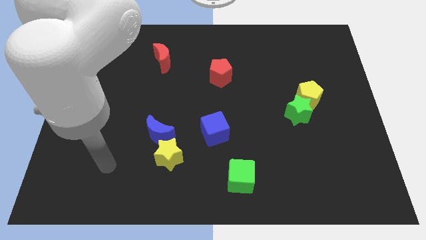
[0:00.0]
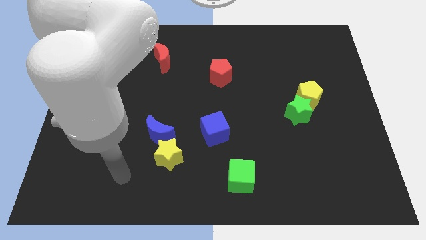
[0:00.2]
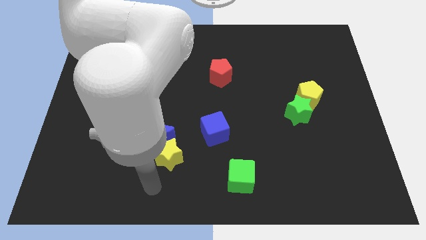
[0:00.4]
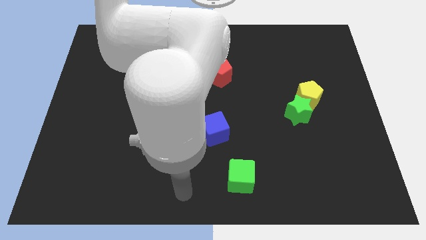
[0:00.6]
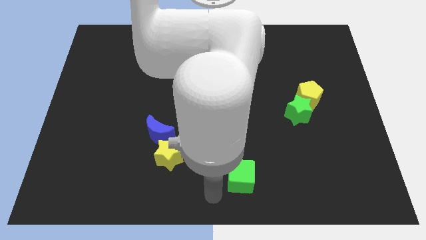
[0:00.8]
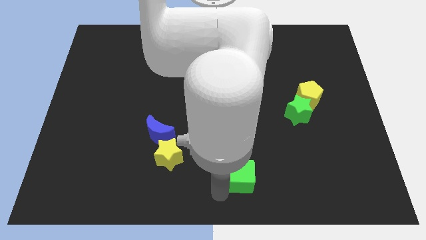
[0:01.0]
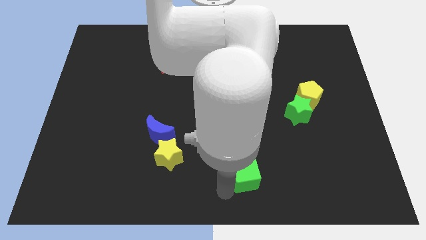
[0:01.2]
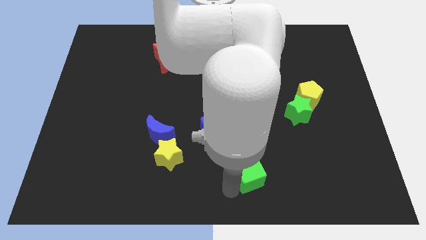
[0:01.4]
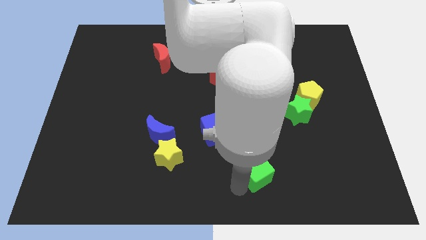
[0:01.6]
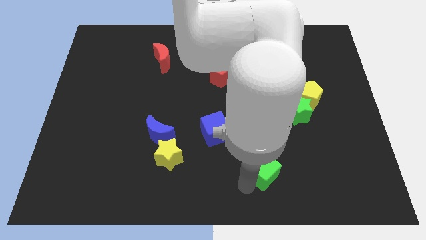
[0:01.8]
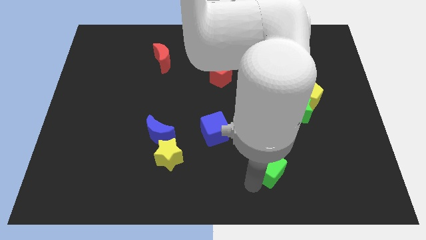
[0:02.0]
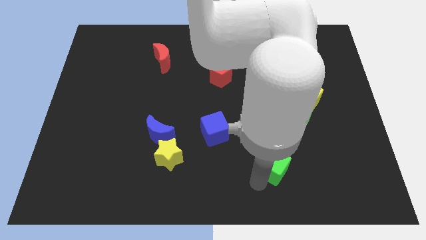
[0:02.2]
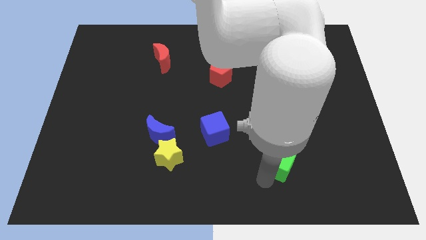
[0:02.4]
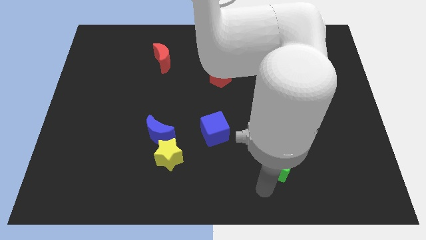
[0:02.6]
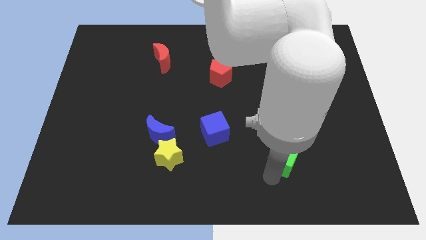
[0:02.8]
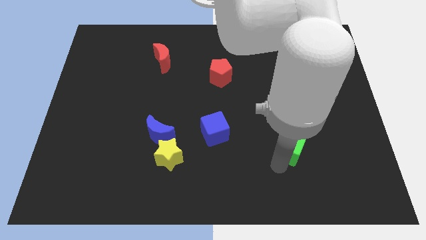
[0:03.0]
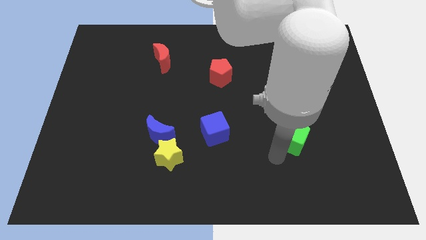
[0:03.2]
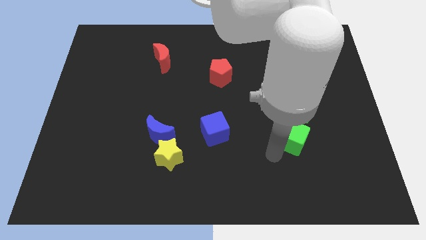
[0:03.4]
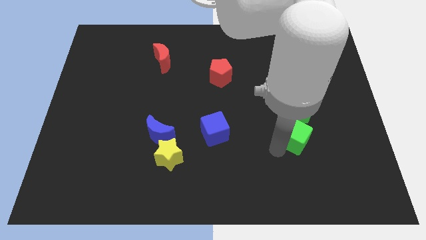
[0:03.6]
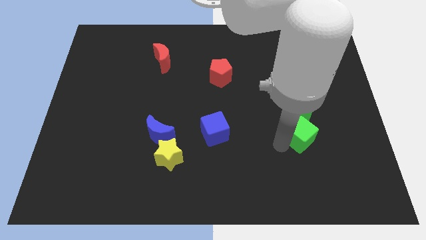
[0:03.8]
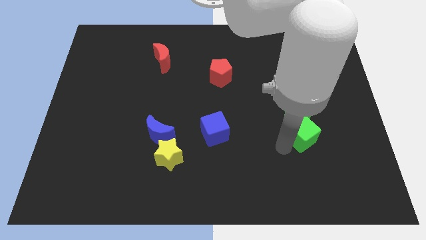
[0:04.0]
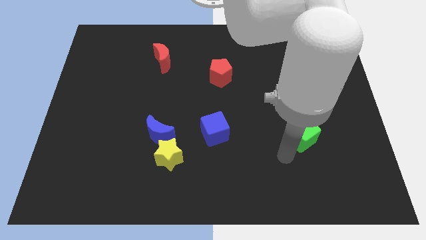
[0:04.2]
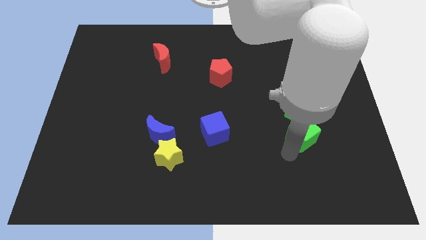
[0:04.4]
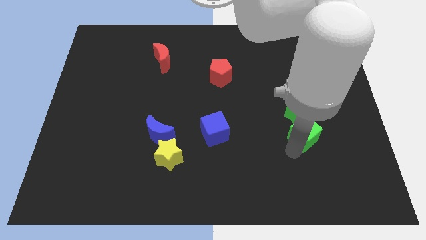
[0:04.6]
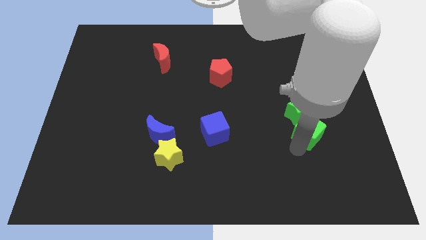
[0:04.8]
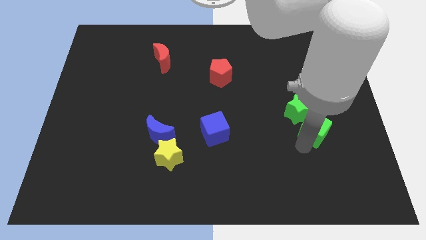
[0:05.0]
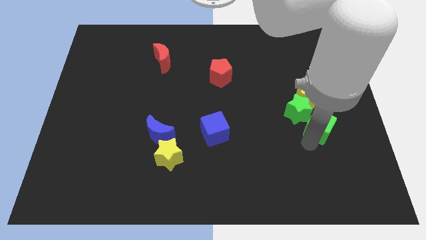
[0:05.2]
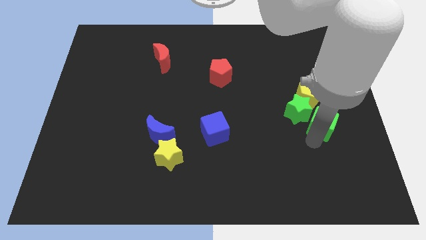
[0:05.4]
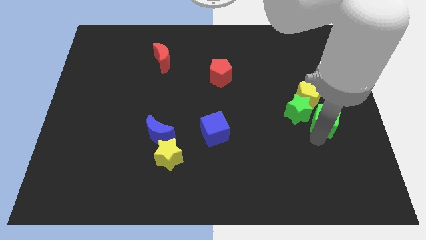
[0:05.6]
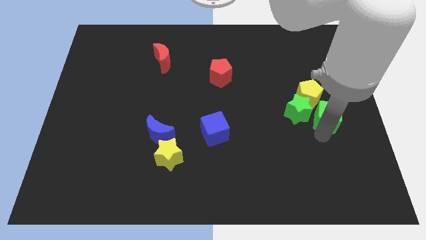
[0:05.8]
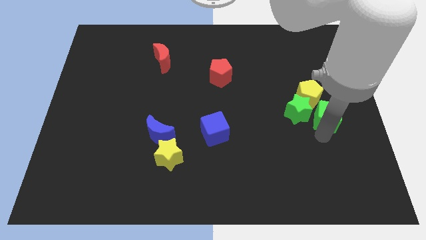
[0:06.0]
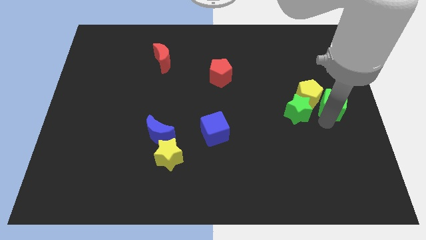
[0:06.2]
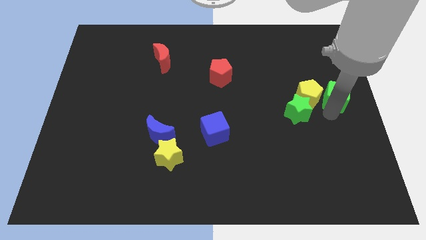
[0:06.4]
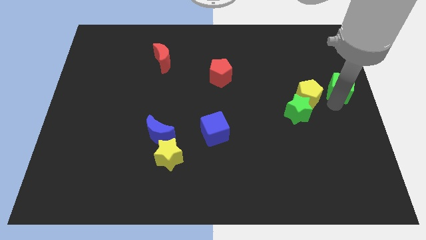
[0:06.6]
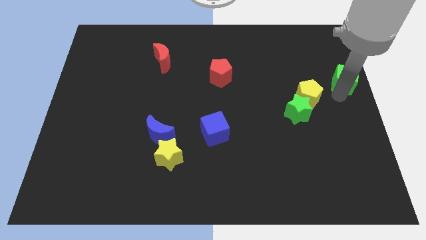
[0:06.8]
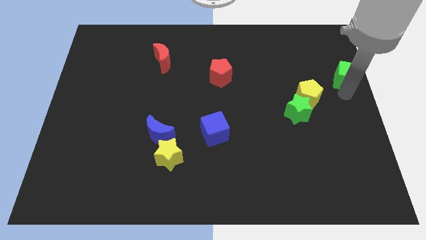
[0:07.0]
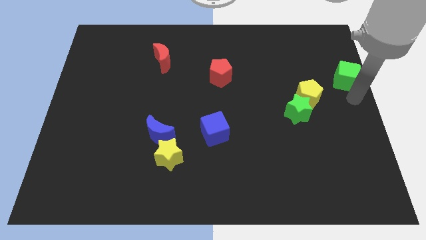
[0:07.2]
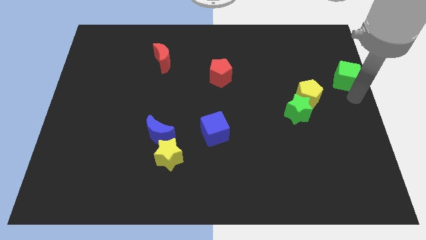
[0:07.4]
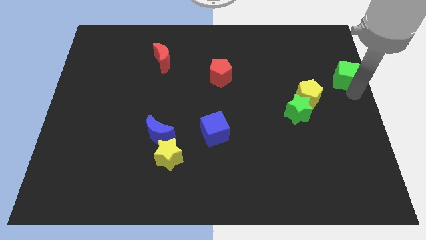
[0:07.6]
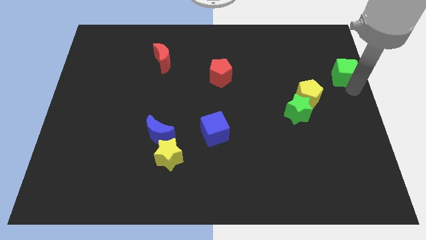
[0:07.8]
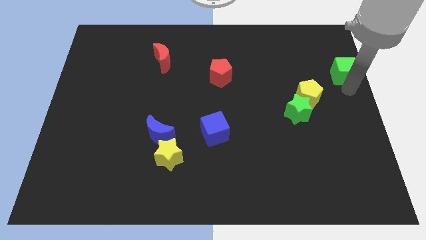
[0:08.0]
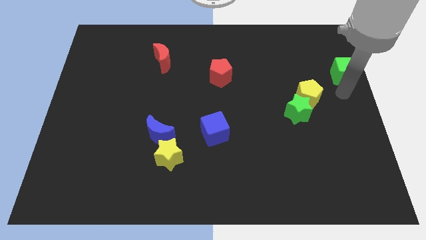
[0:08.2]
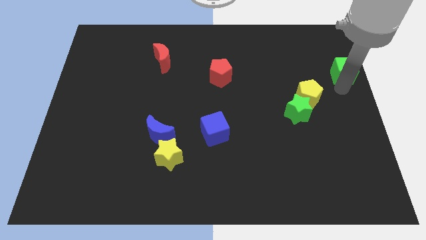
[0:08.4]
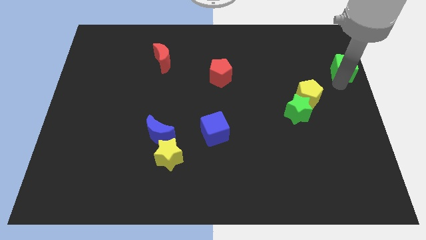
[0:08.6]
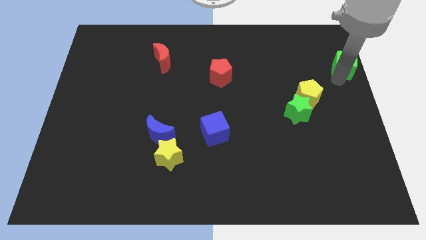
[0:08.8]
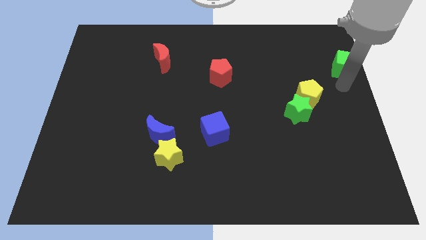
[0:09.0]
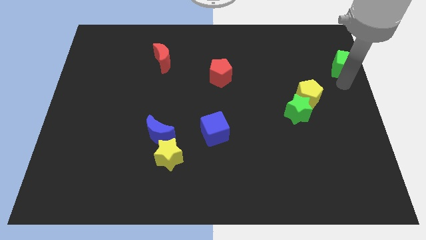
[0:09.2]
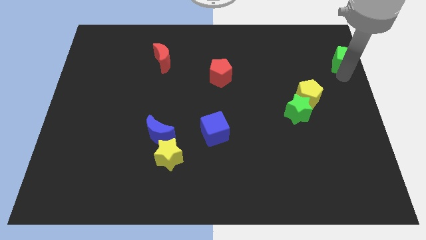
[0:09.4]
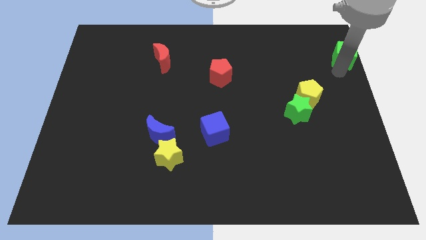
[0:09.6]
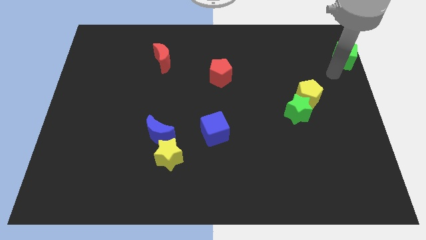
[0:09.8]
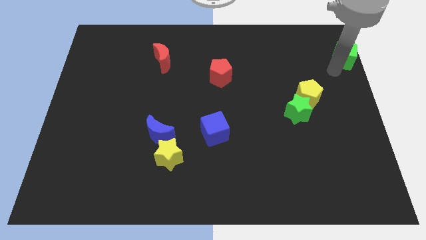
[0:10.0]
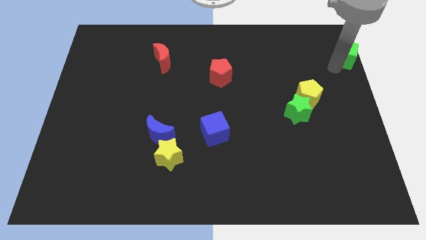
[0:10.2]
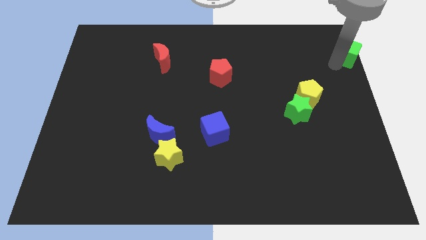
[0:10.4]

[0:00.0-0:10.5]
put the green cube to the top right

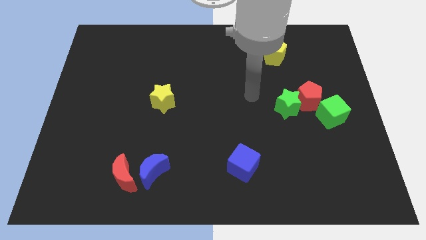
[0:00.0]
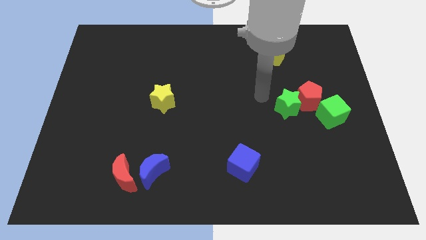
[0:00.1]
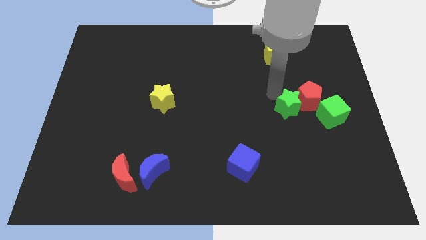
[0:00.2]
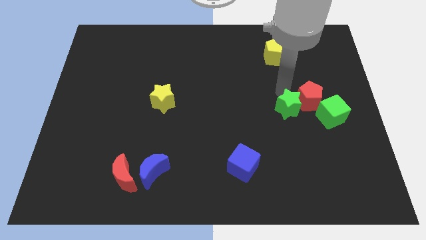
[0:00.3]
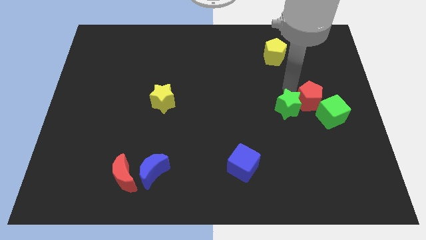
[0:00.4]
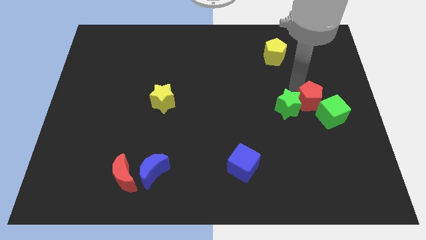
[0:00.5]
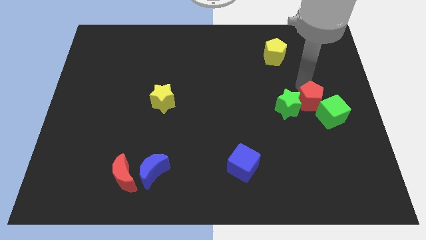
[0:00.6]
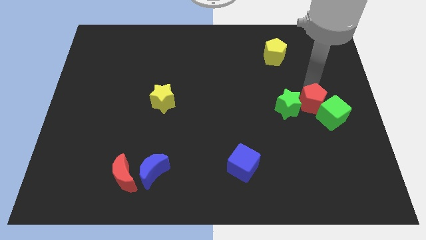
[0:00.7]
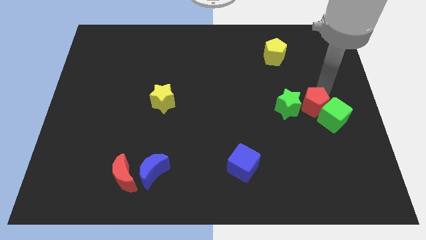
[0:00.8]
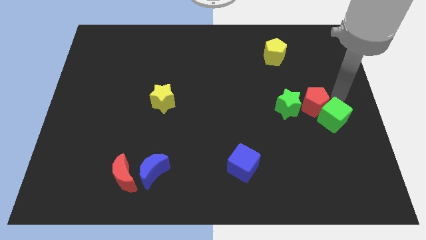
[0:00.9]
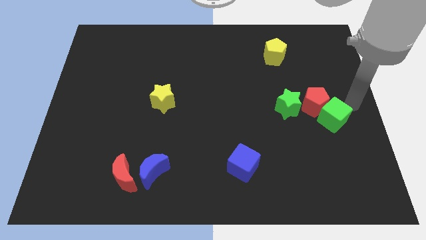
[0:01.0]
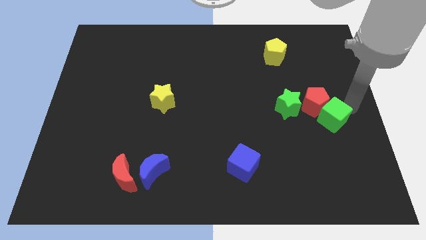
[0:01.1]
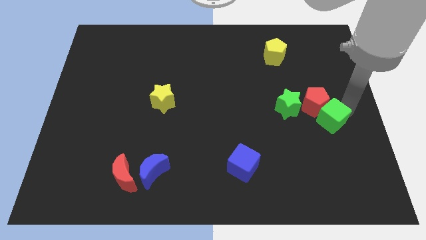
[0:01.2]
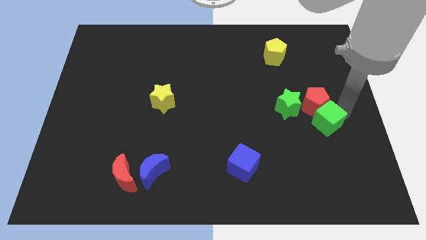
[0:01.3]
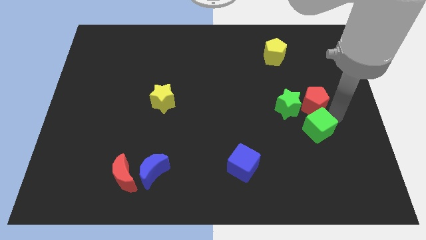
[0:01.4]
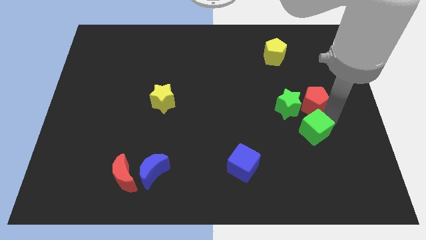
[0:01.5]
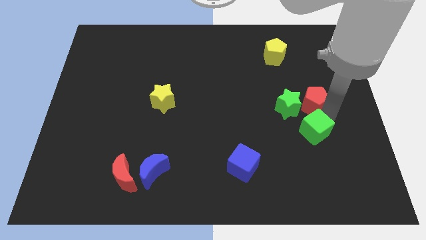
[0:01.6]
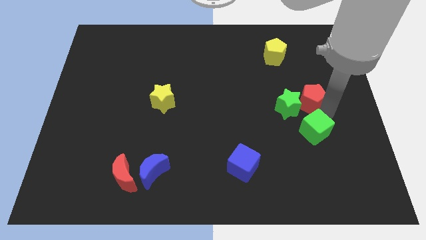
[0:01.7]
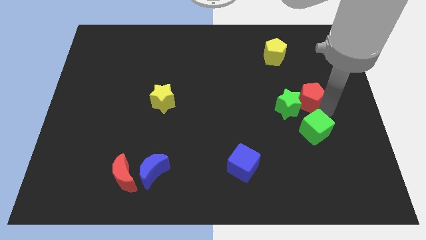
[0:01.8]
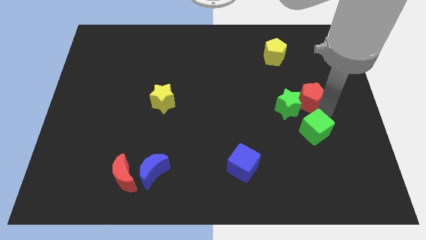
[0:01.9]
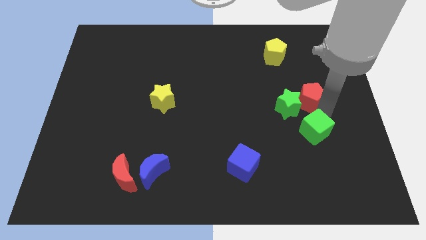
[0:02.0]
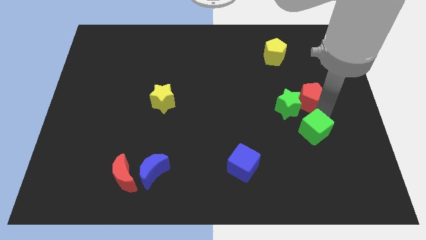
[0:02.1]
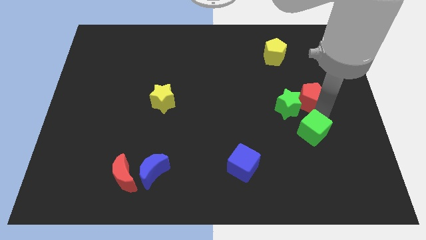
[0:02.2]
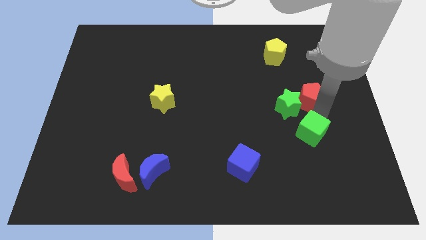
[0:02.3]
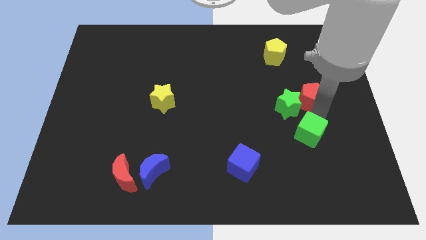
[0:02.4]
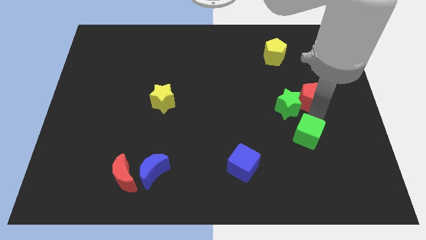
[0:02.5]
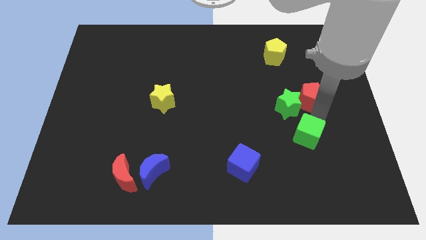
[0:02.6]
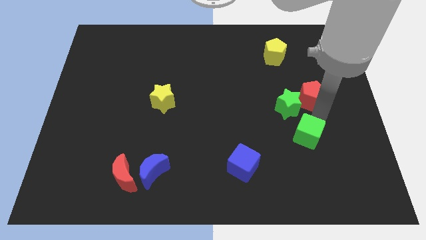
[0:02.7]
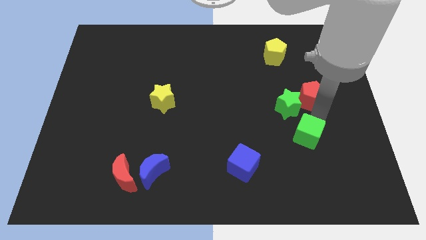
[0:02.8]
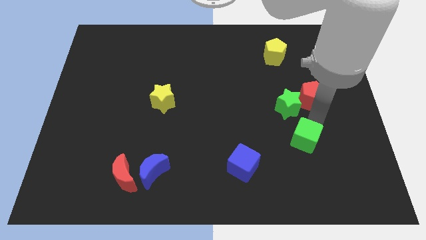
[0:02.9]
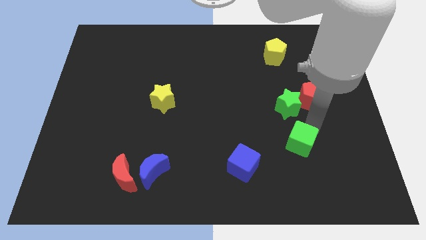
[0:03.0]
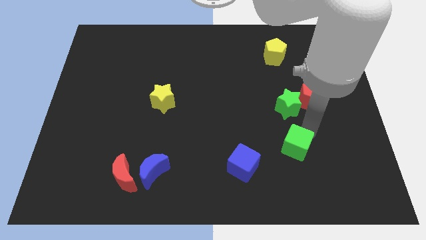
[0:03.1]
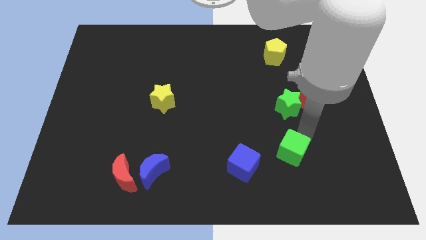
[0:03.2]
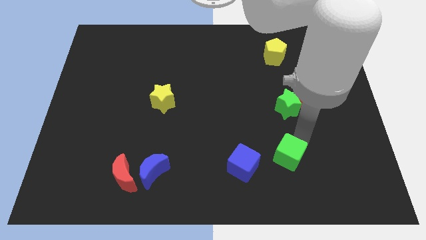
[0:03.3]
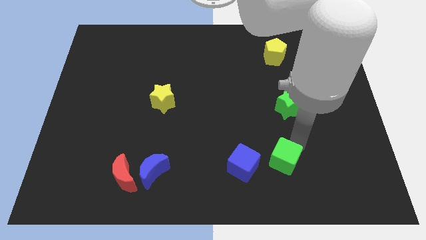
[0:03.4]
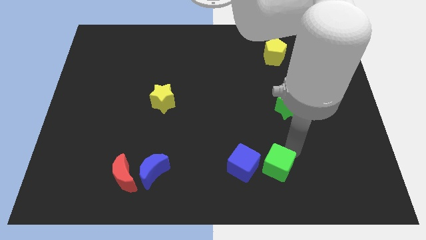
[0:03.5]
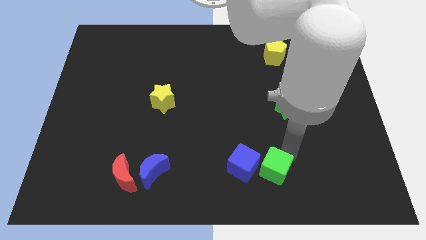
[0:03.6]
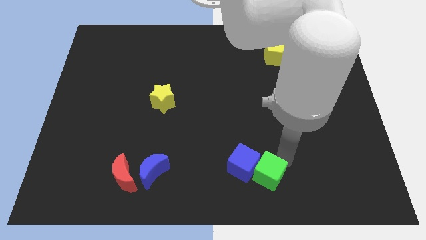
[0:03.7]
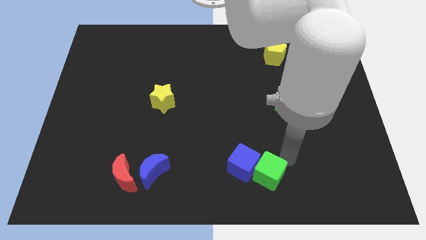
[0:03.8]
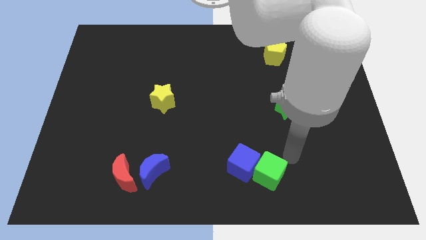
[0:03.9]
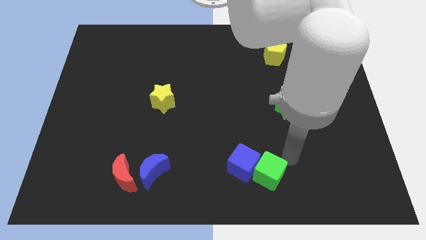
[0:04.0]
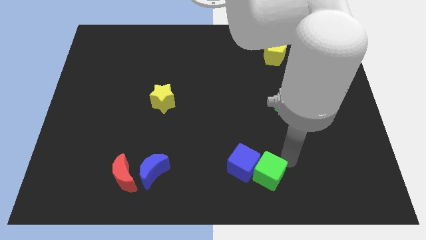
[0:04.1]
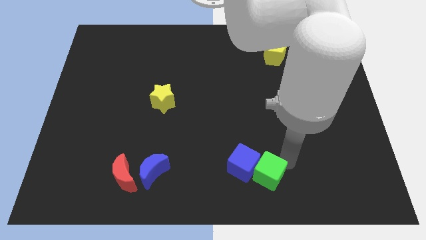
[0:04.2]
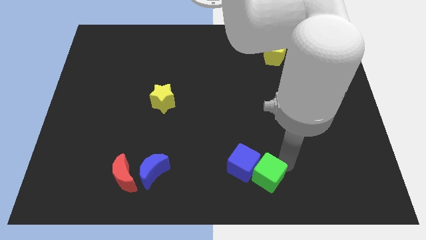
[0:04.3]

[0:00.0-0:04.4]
move the green cube to the bottom side
